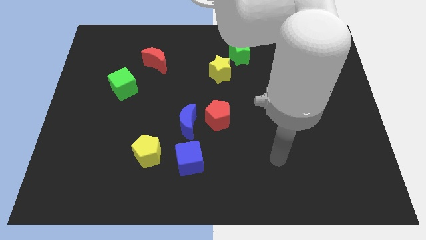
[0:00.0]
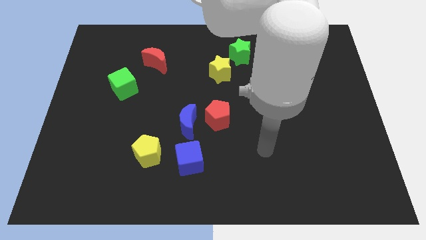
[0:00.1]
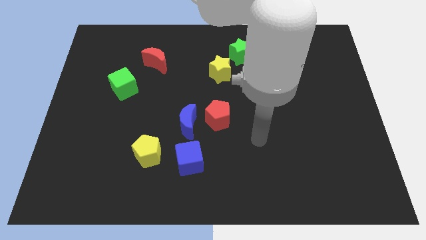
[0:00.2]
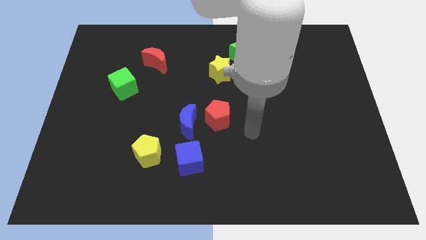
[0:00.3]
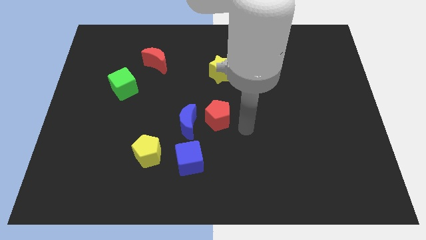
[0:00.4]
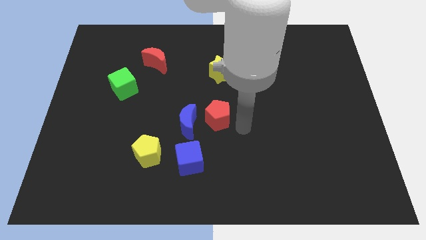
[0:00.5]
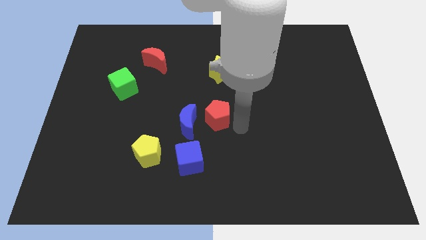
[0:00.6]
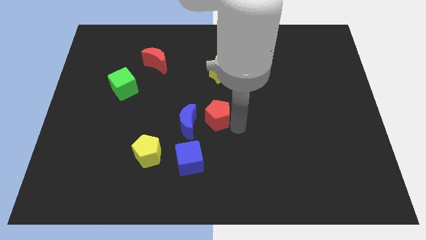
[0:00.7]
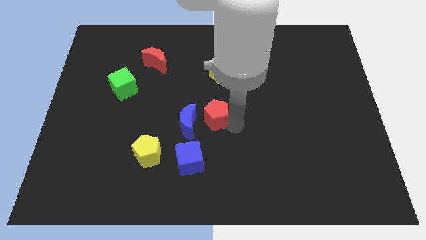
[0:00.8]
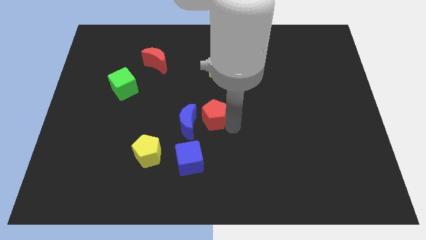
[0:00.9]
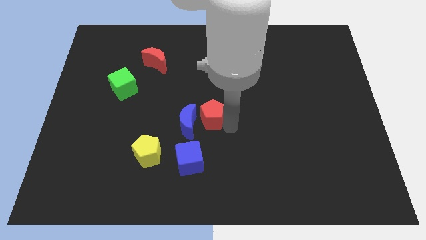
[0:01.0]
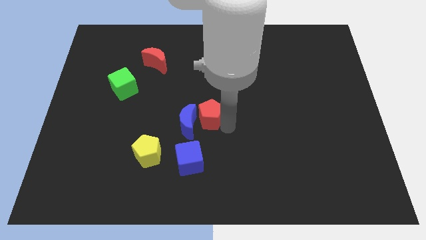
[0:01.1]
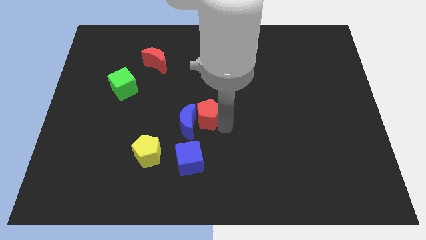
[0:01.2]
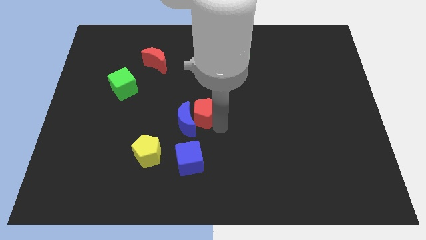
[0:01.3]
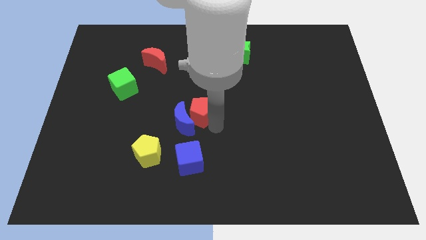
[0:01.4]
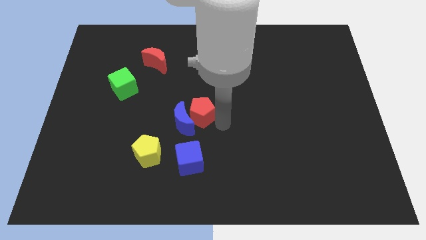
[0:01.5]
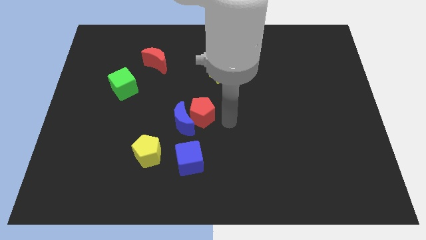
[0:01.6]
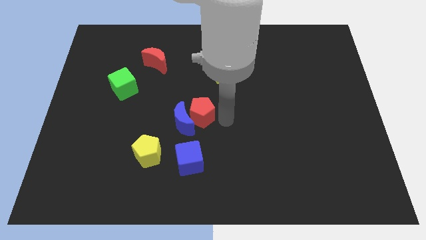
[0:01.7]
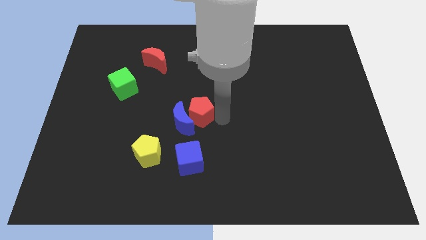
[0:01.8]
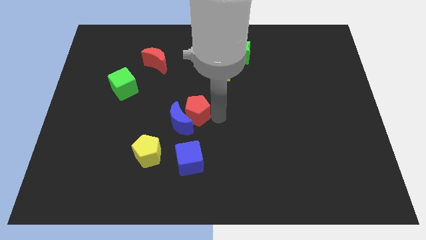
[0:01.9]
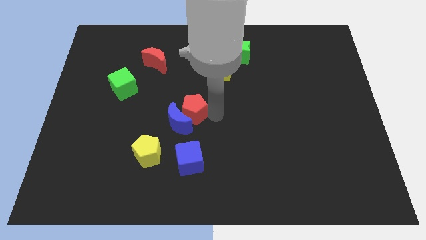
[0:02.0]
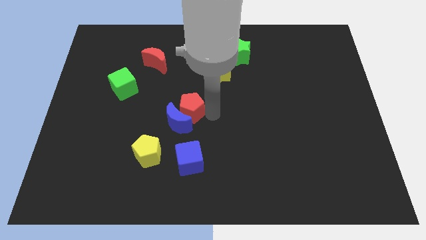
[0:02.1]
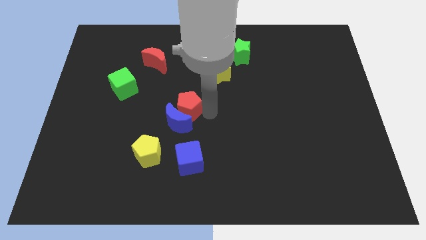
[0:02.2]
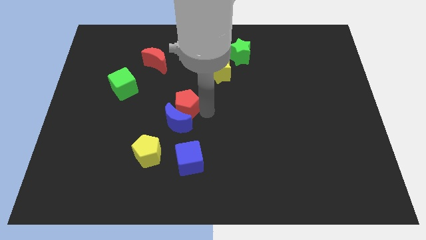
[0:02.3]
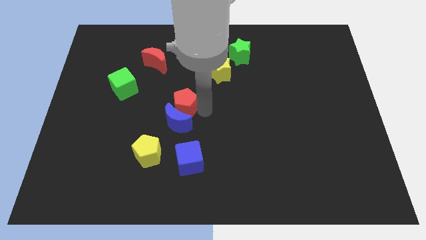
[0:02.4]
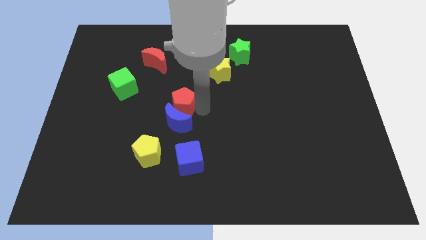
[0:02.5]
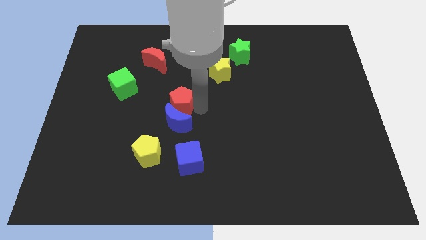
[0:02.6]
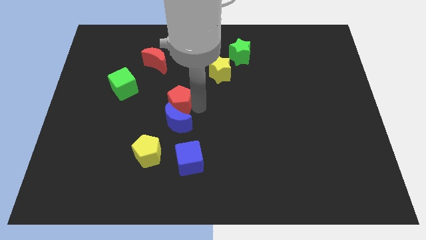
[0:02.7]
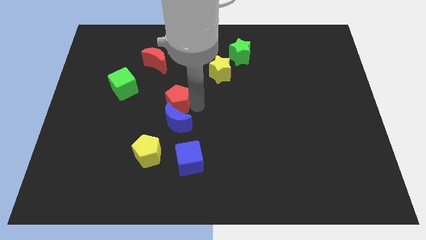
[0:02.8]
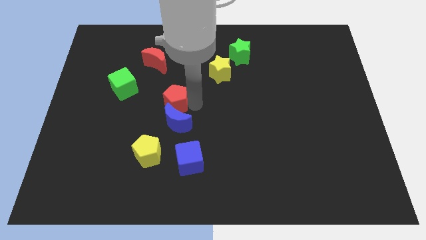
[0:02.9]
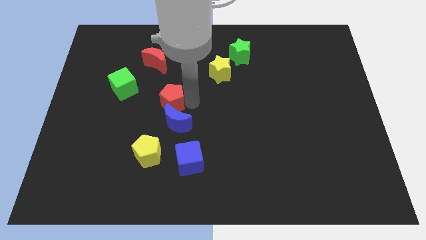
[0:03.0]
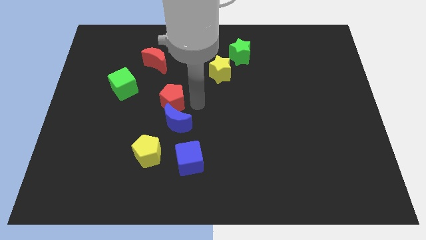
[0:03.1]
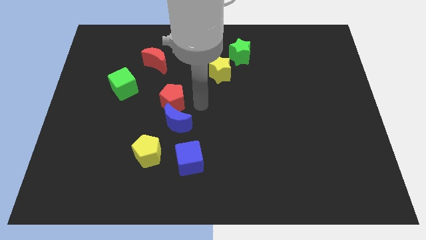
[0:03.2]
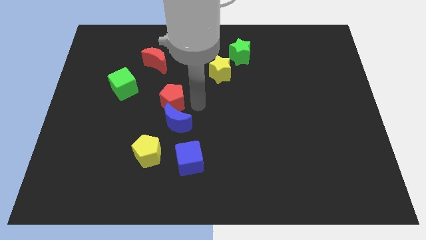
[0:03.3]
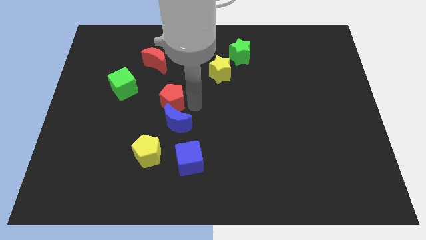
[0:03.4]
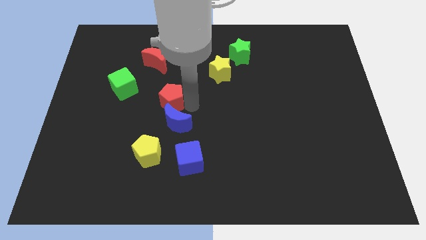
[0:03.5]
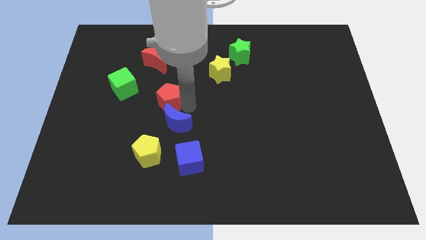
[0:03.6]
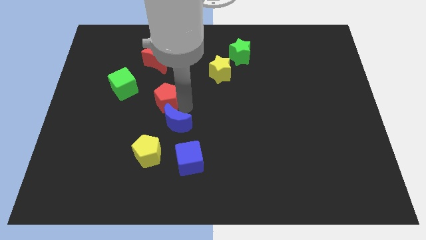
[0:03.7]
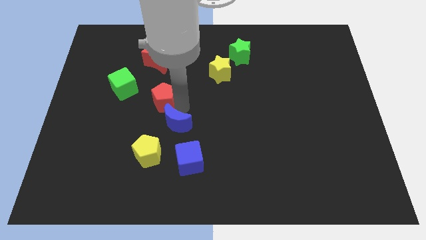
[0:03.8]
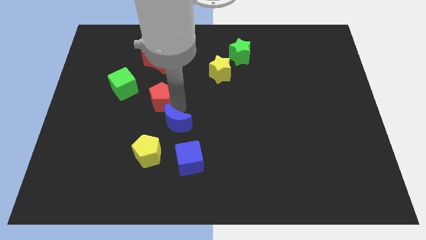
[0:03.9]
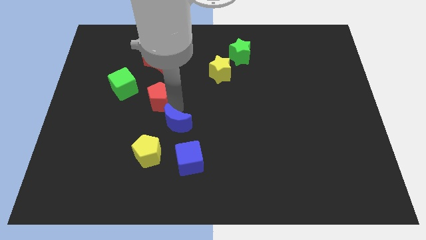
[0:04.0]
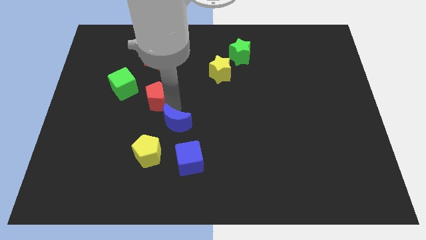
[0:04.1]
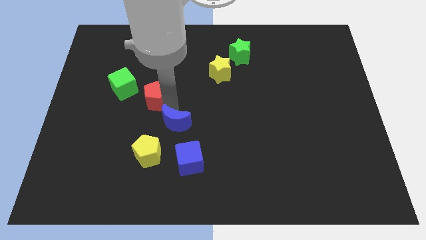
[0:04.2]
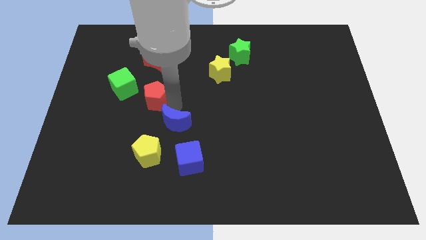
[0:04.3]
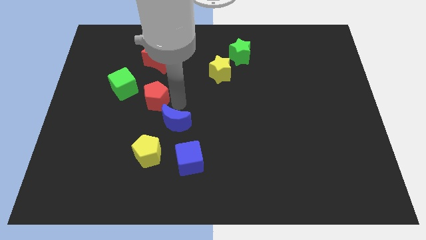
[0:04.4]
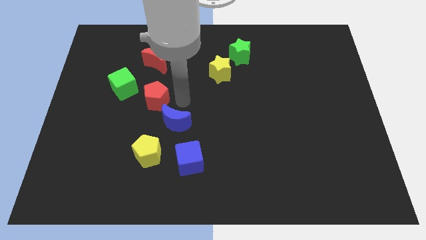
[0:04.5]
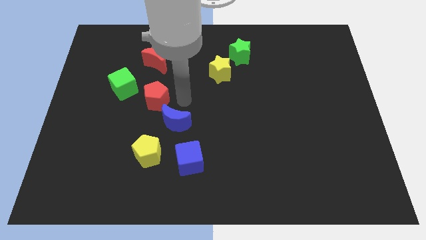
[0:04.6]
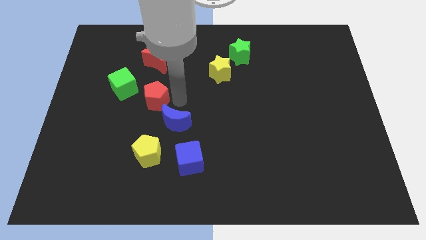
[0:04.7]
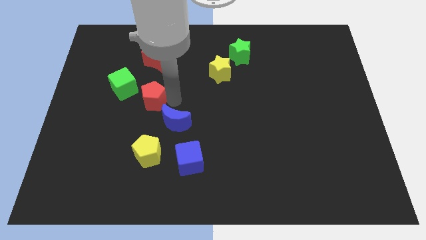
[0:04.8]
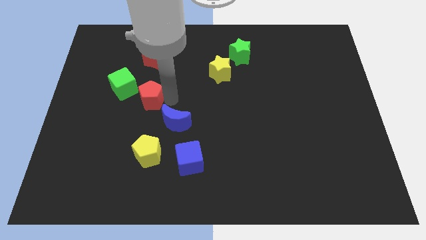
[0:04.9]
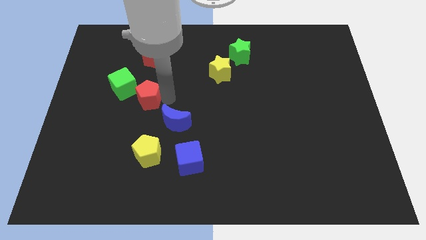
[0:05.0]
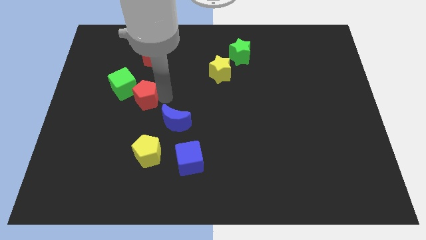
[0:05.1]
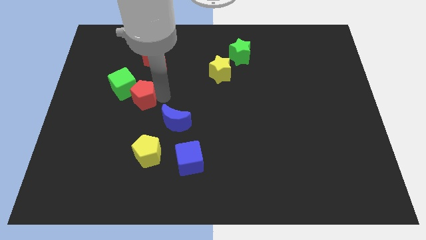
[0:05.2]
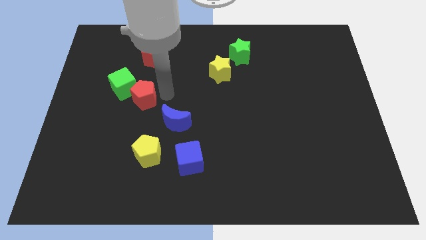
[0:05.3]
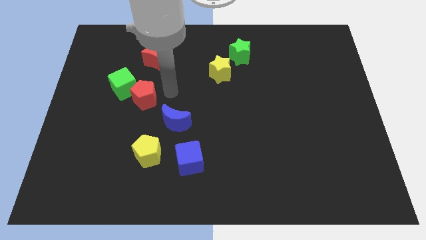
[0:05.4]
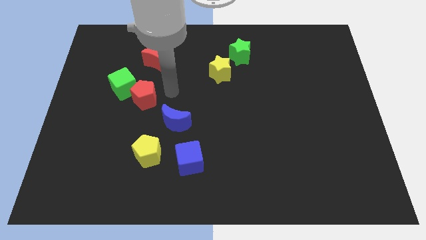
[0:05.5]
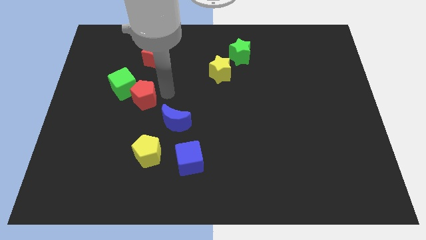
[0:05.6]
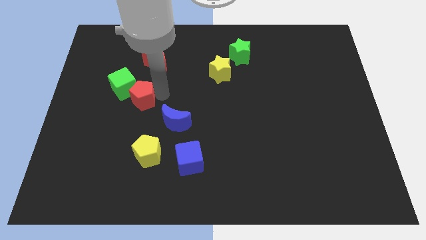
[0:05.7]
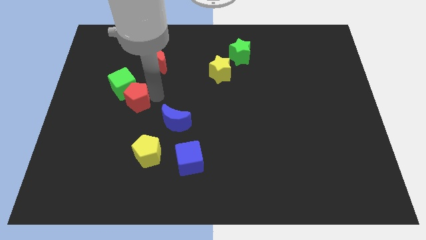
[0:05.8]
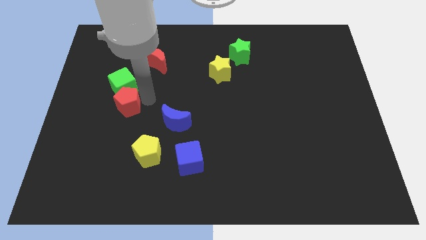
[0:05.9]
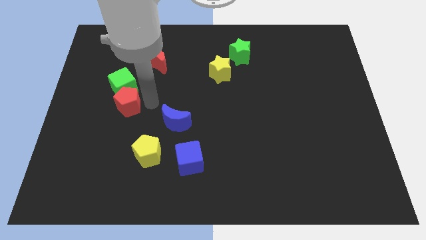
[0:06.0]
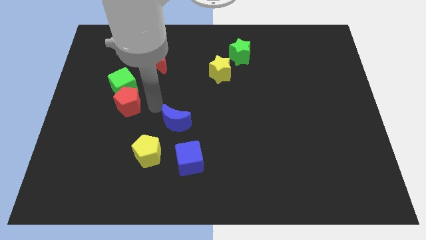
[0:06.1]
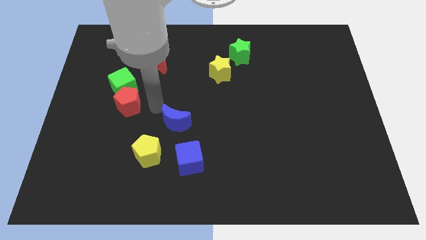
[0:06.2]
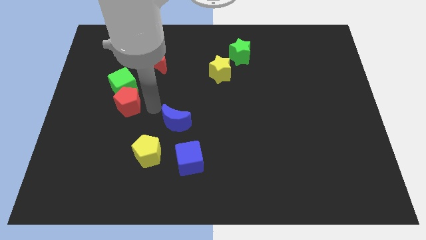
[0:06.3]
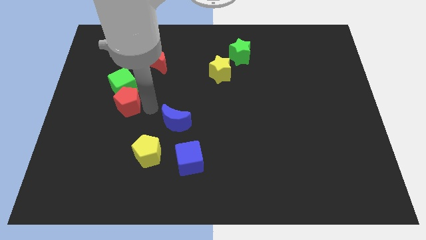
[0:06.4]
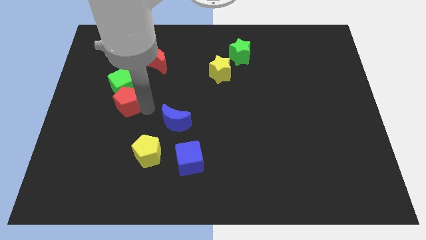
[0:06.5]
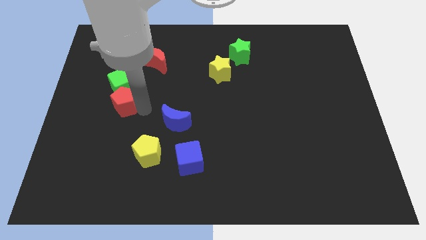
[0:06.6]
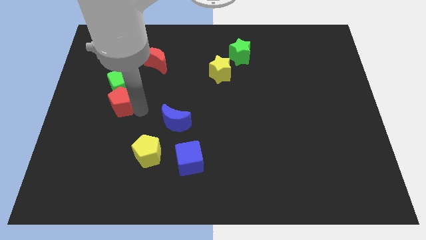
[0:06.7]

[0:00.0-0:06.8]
put the red pentagon to the bottom left of the green cube
